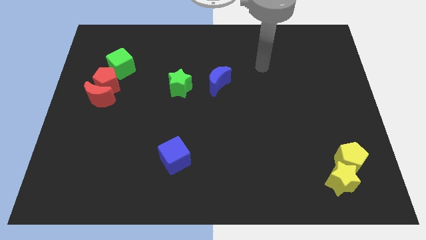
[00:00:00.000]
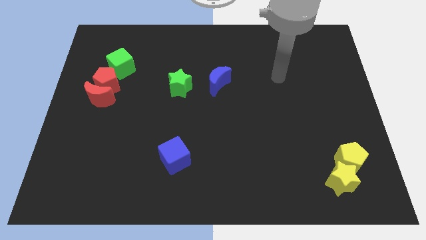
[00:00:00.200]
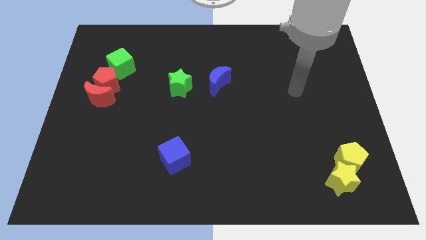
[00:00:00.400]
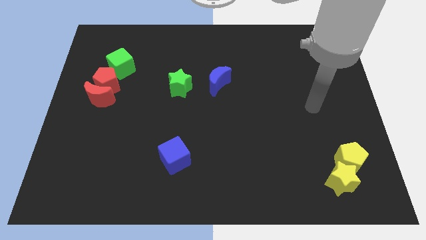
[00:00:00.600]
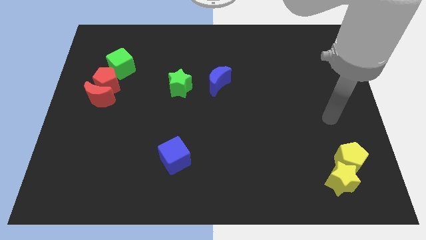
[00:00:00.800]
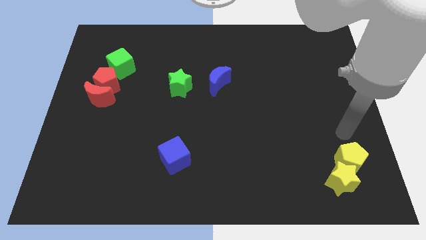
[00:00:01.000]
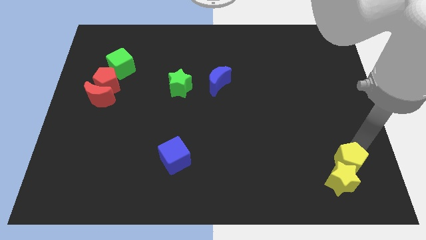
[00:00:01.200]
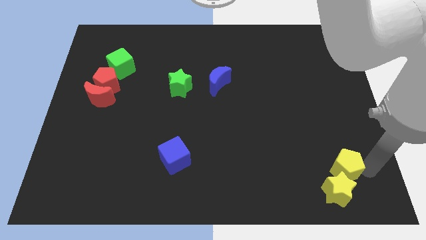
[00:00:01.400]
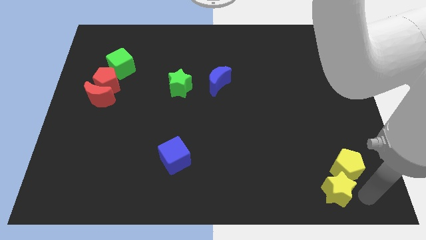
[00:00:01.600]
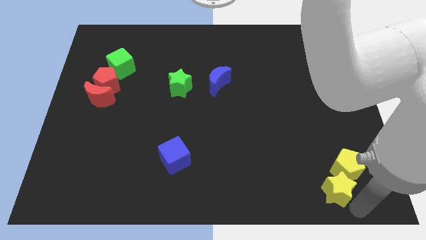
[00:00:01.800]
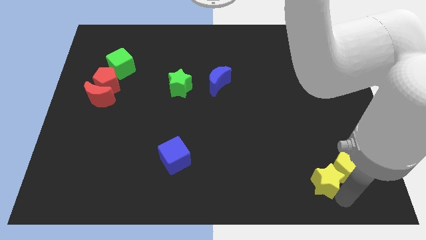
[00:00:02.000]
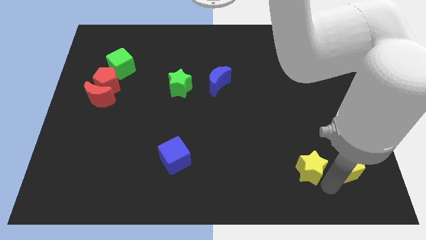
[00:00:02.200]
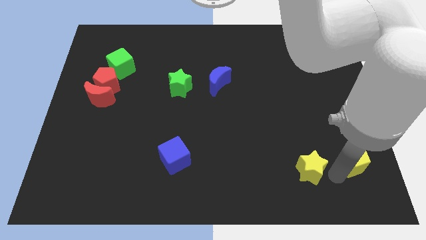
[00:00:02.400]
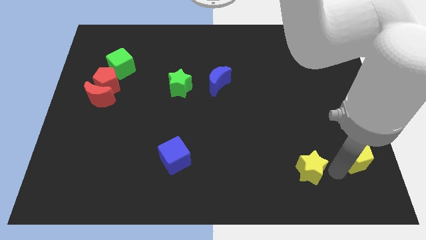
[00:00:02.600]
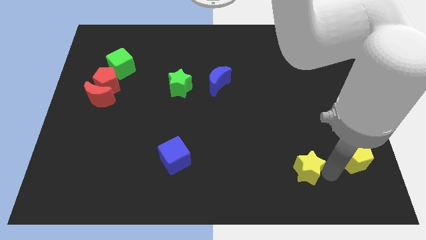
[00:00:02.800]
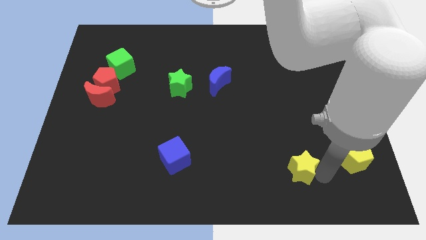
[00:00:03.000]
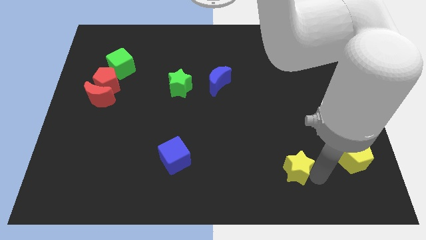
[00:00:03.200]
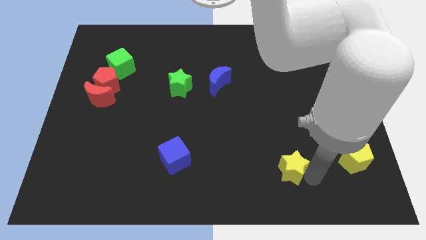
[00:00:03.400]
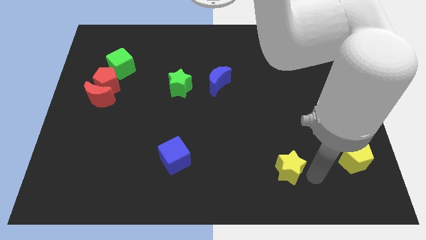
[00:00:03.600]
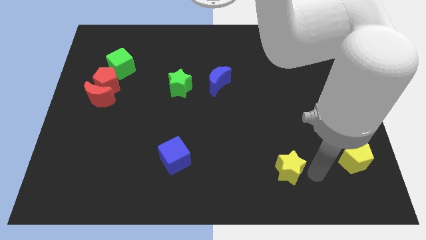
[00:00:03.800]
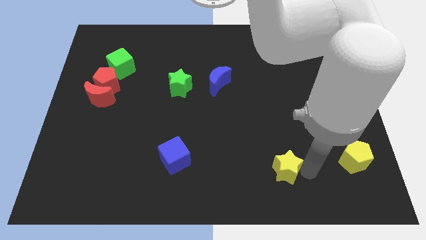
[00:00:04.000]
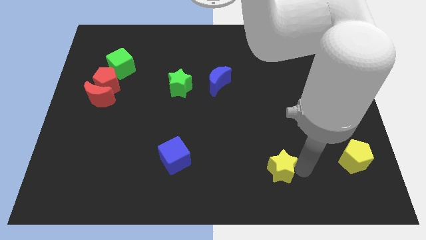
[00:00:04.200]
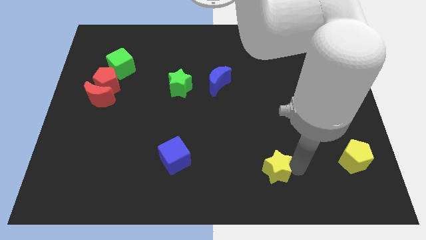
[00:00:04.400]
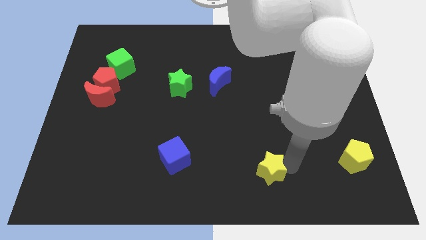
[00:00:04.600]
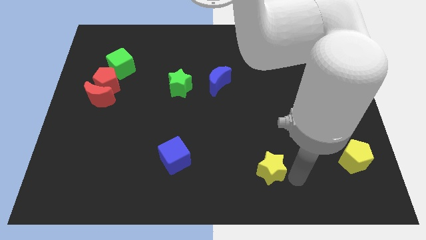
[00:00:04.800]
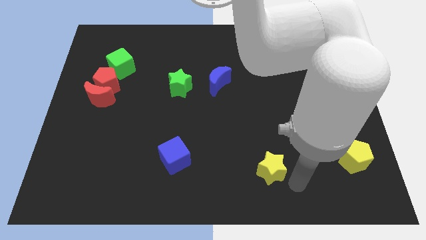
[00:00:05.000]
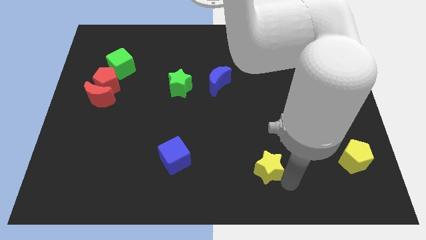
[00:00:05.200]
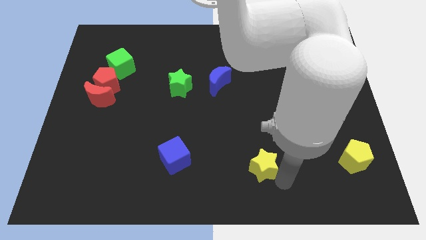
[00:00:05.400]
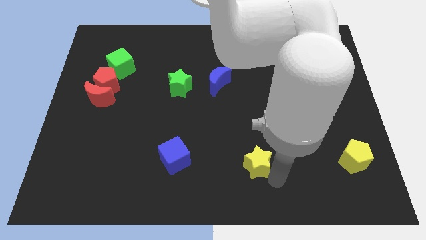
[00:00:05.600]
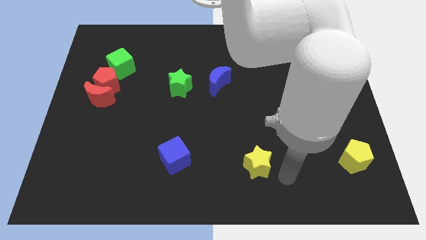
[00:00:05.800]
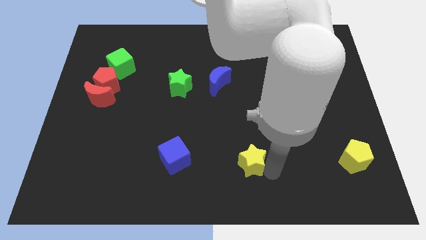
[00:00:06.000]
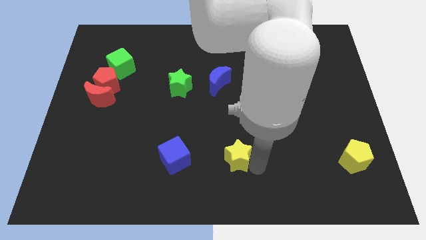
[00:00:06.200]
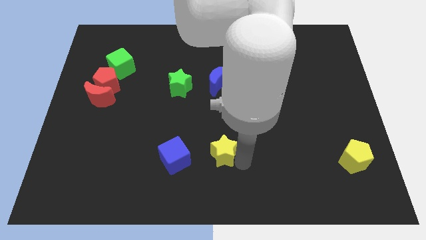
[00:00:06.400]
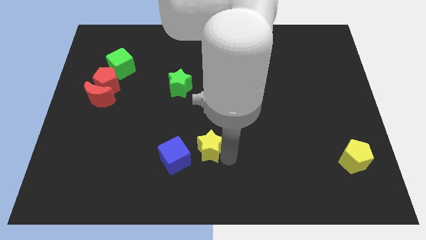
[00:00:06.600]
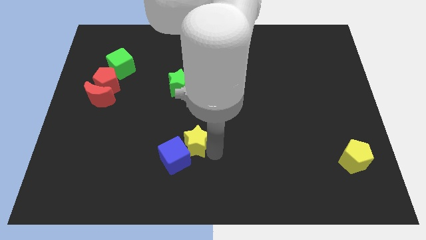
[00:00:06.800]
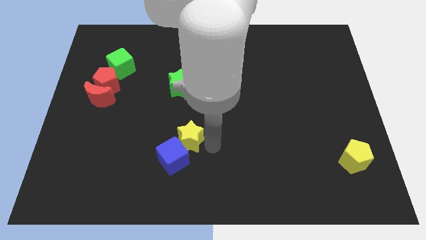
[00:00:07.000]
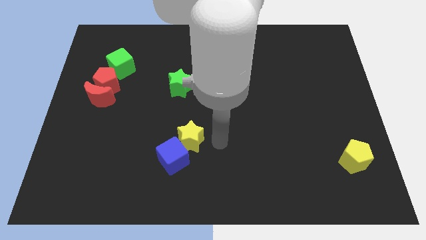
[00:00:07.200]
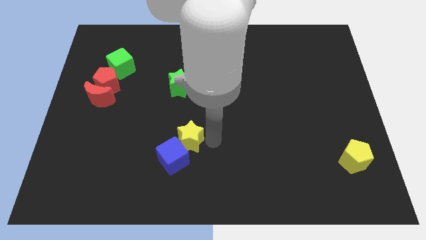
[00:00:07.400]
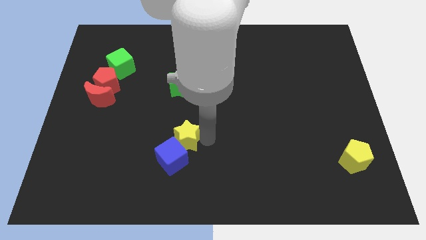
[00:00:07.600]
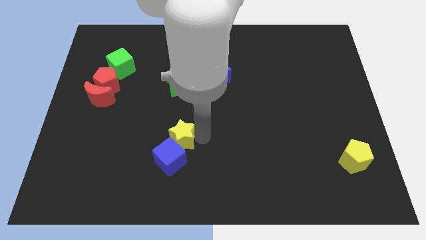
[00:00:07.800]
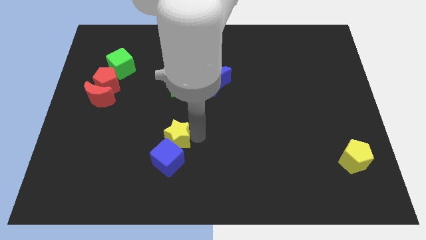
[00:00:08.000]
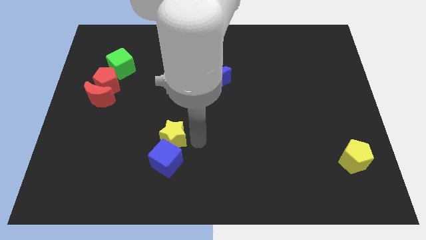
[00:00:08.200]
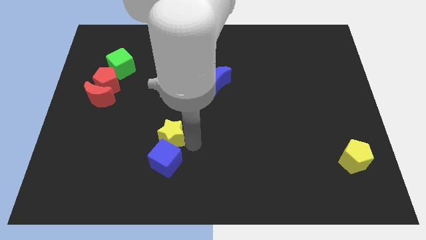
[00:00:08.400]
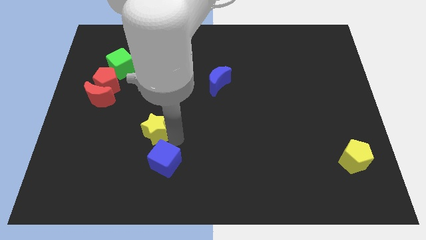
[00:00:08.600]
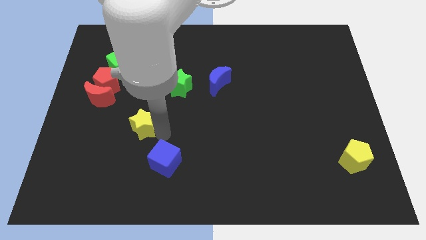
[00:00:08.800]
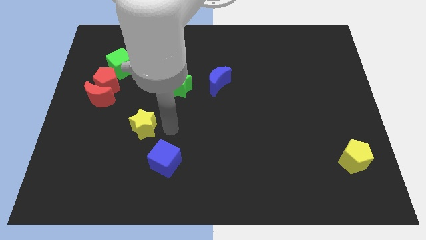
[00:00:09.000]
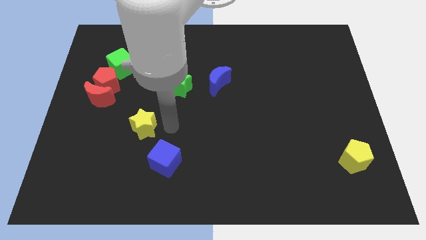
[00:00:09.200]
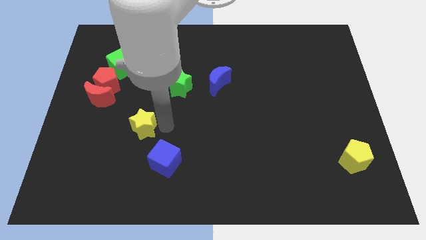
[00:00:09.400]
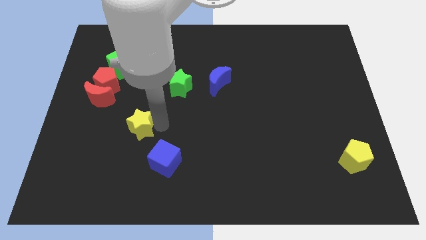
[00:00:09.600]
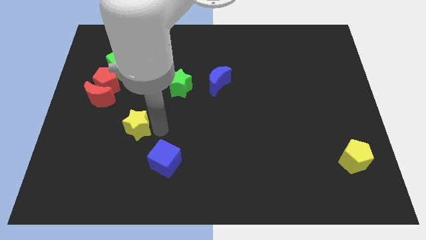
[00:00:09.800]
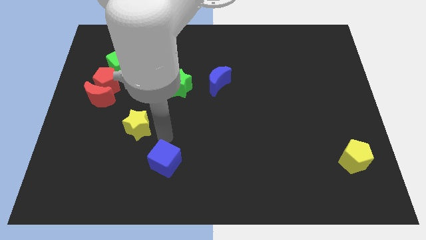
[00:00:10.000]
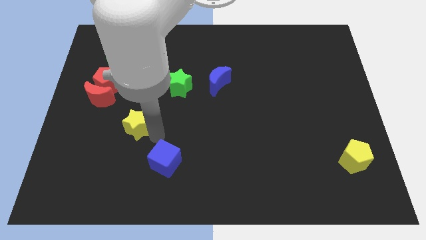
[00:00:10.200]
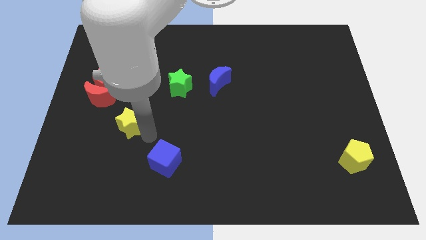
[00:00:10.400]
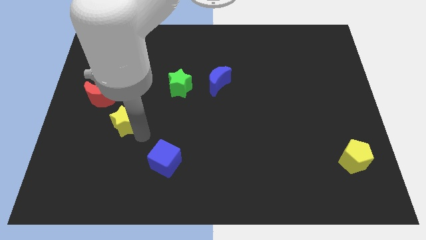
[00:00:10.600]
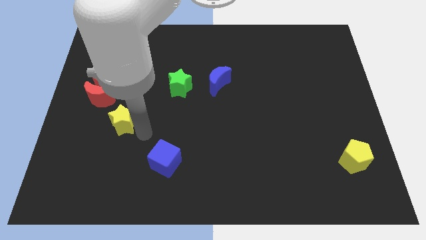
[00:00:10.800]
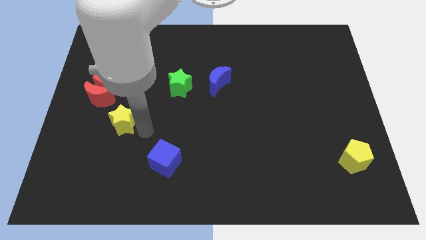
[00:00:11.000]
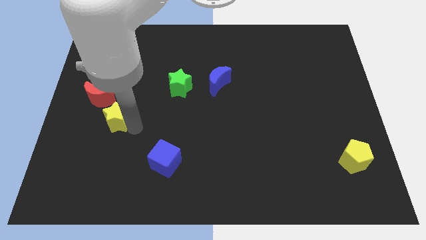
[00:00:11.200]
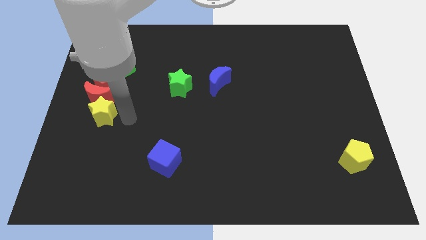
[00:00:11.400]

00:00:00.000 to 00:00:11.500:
slide the yellow star to the left side of the board
